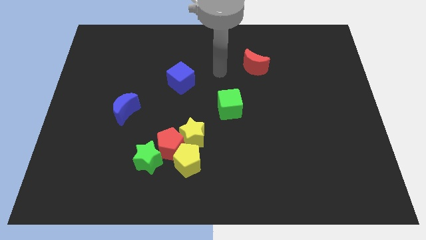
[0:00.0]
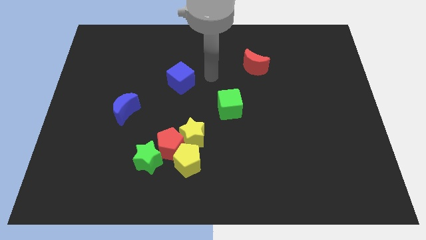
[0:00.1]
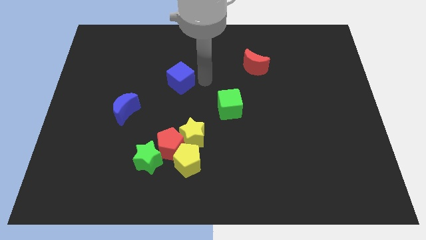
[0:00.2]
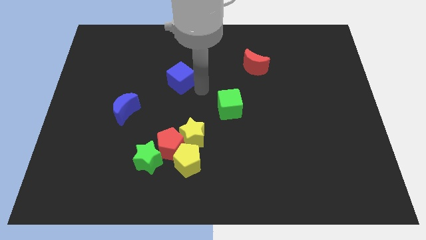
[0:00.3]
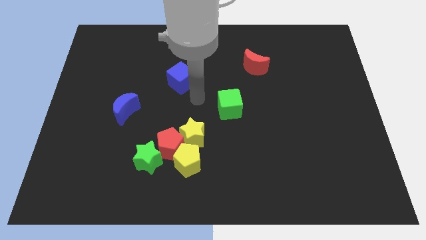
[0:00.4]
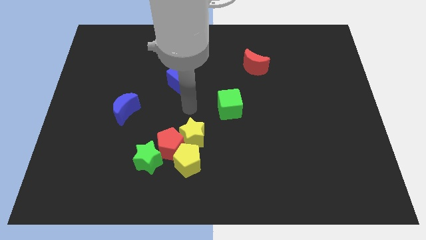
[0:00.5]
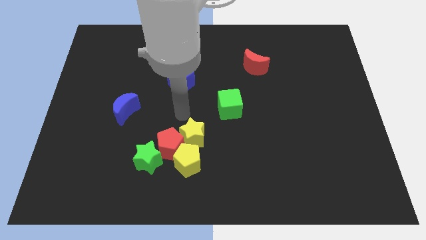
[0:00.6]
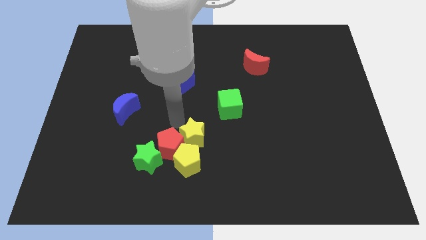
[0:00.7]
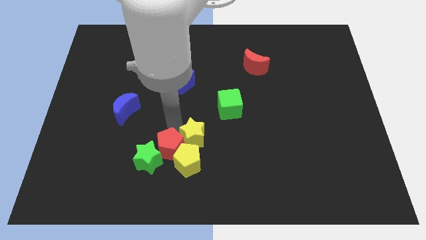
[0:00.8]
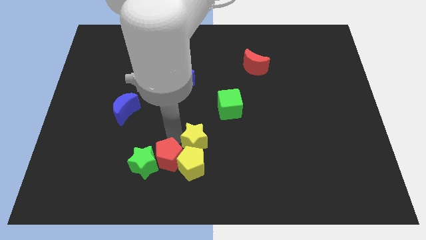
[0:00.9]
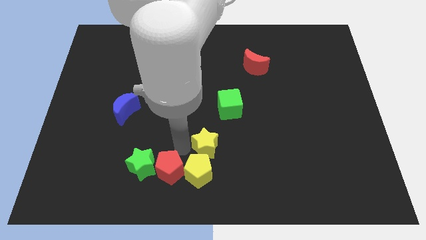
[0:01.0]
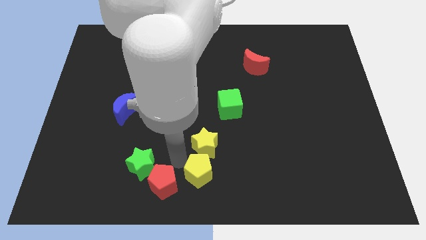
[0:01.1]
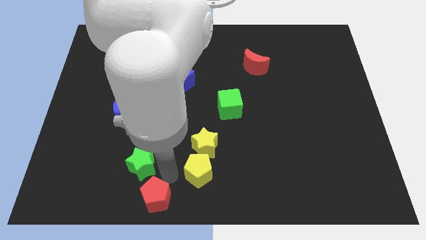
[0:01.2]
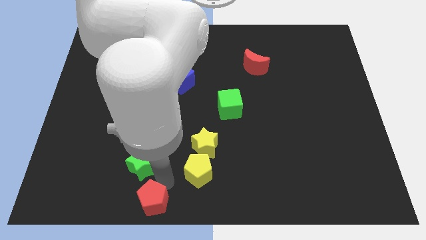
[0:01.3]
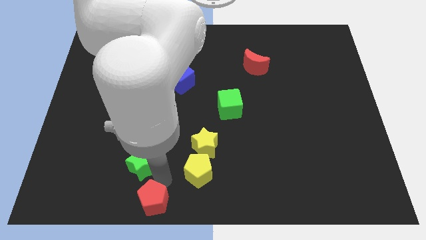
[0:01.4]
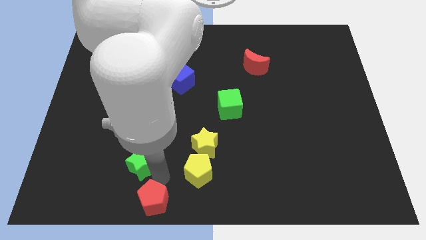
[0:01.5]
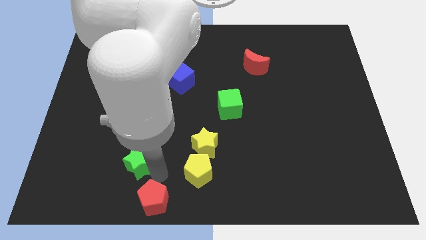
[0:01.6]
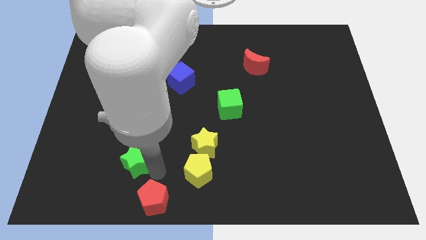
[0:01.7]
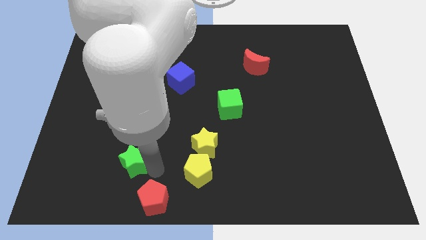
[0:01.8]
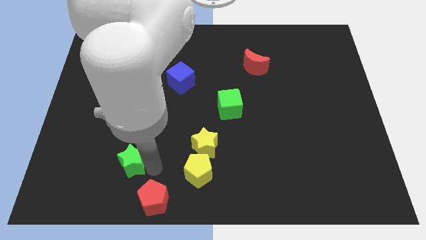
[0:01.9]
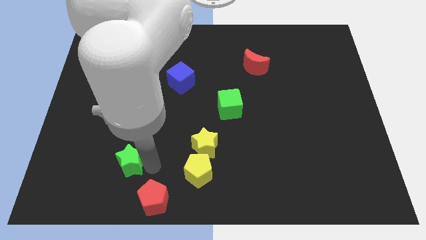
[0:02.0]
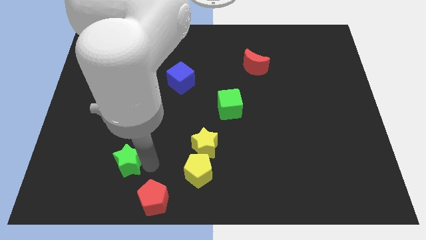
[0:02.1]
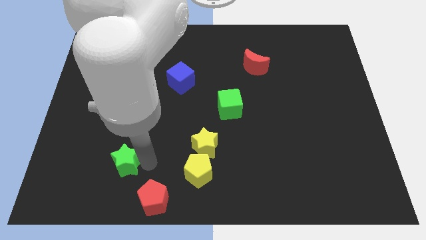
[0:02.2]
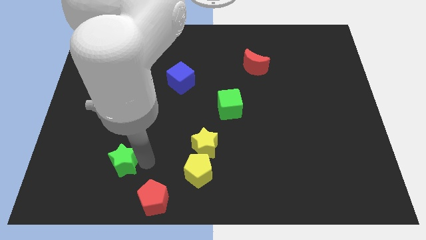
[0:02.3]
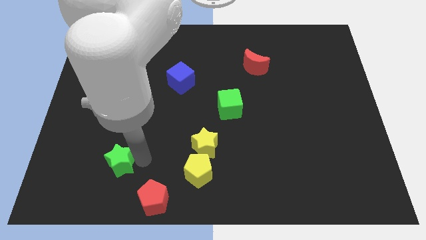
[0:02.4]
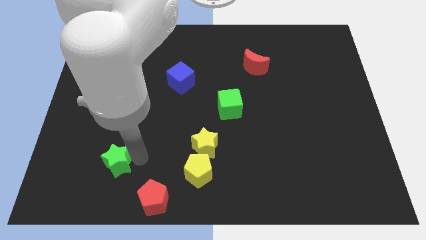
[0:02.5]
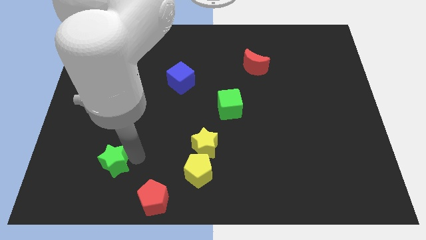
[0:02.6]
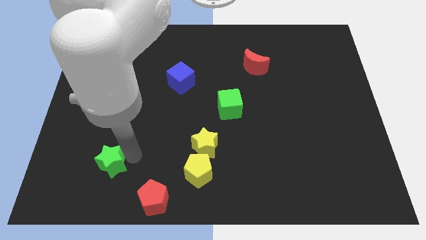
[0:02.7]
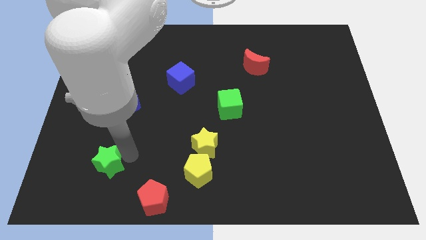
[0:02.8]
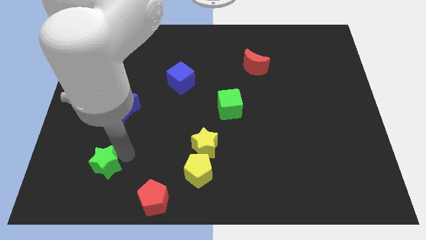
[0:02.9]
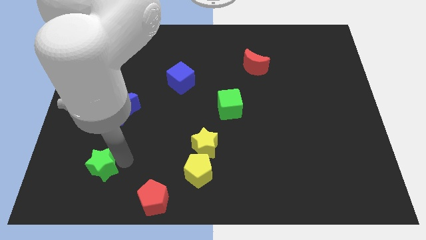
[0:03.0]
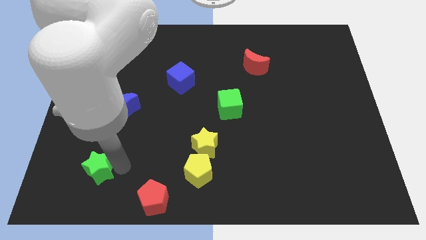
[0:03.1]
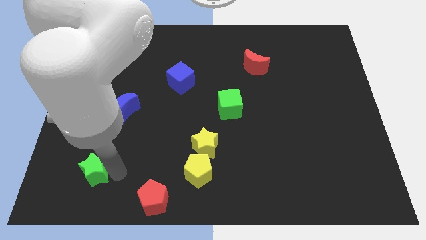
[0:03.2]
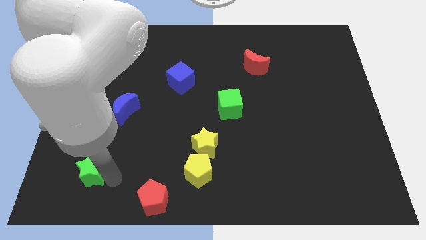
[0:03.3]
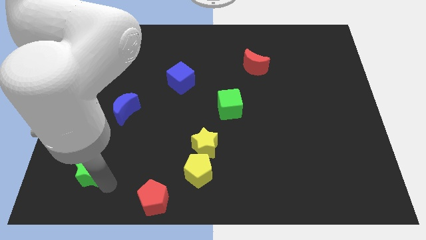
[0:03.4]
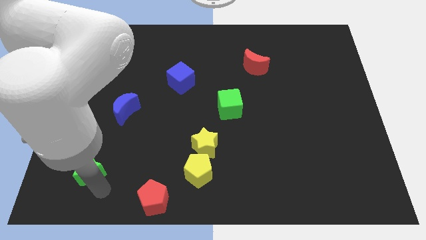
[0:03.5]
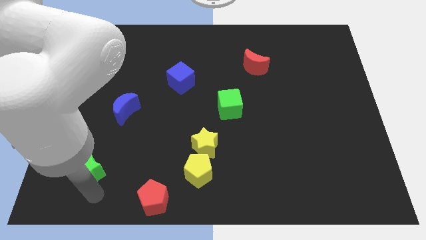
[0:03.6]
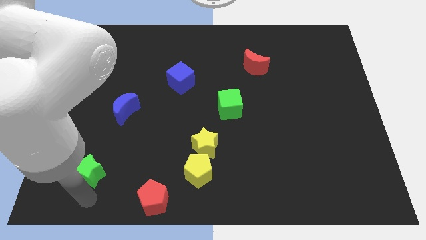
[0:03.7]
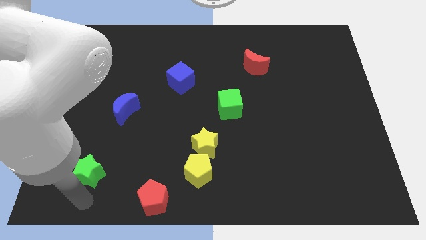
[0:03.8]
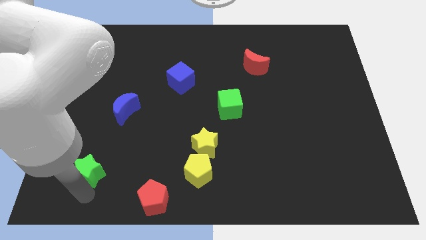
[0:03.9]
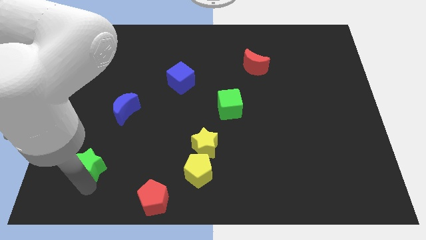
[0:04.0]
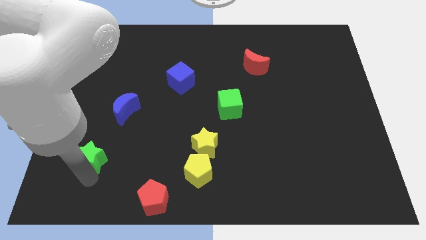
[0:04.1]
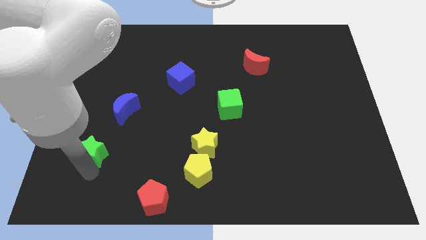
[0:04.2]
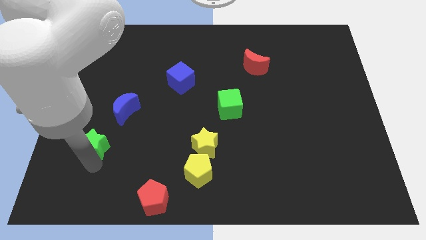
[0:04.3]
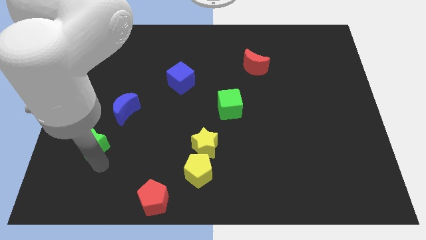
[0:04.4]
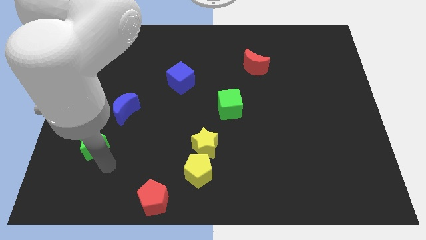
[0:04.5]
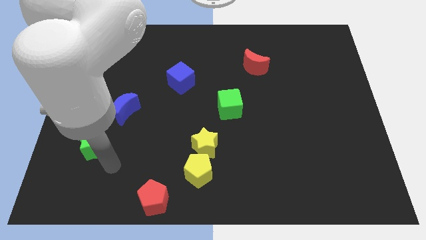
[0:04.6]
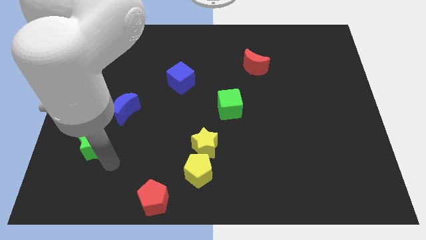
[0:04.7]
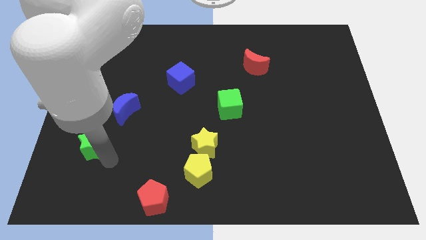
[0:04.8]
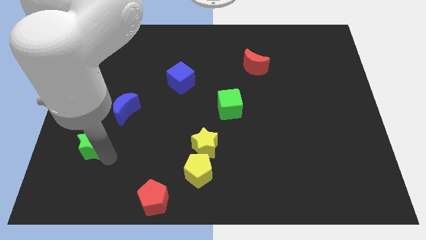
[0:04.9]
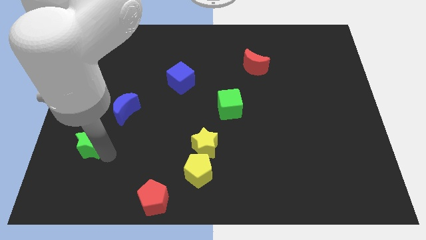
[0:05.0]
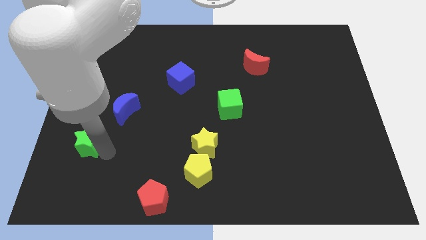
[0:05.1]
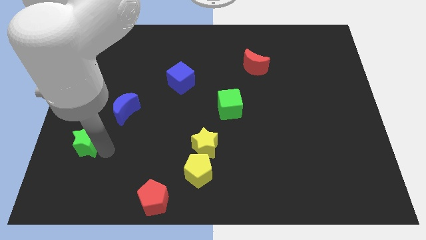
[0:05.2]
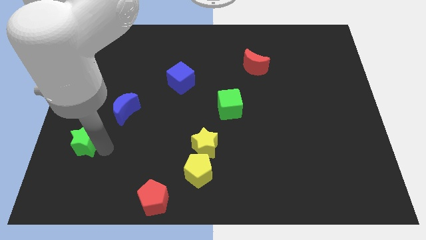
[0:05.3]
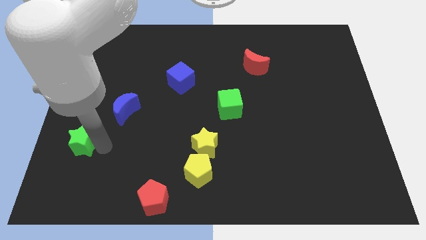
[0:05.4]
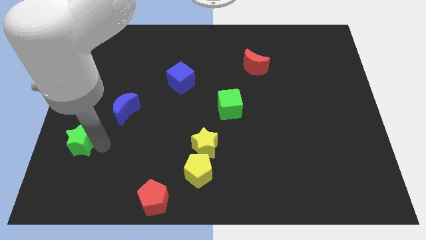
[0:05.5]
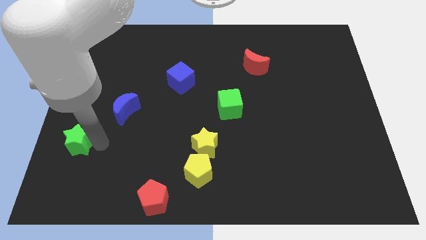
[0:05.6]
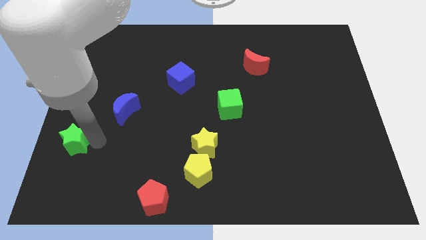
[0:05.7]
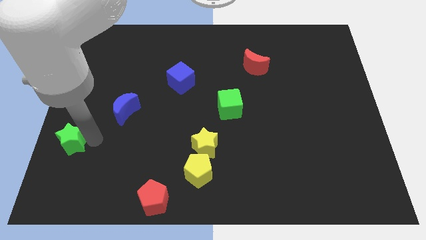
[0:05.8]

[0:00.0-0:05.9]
move the green star to the center left
